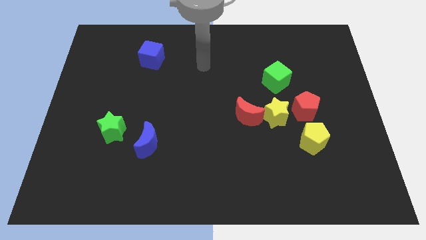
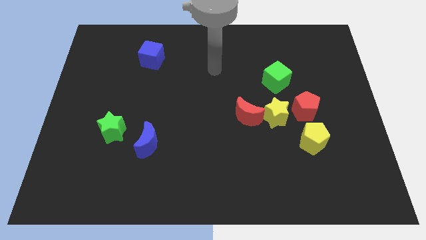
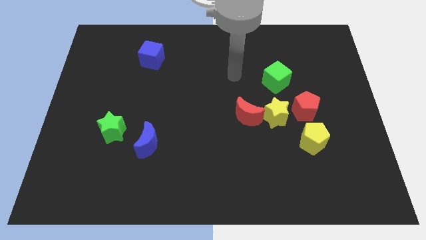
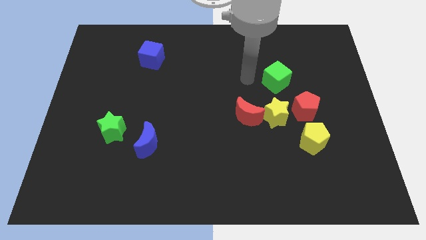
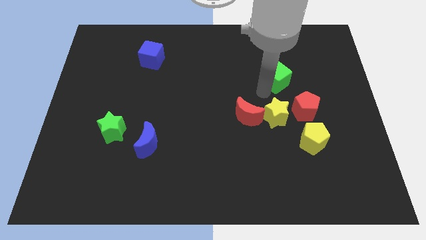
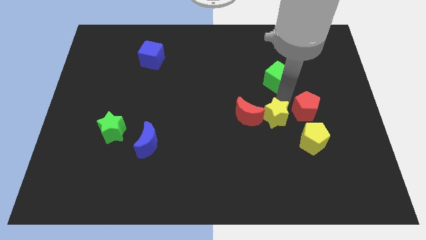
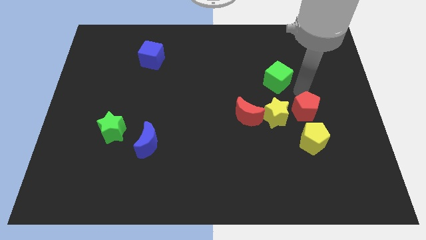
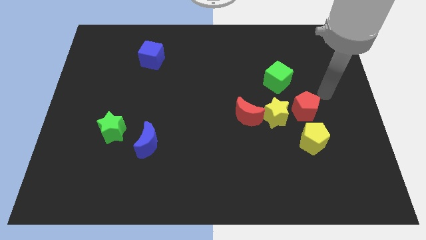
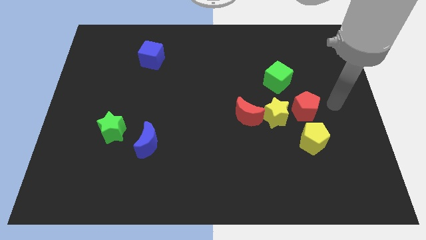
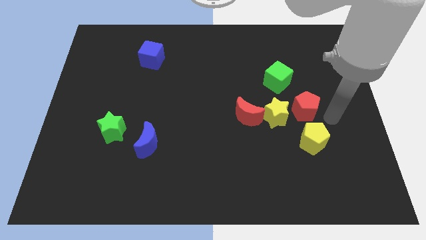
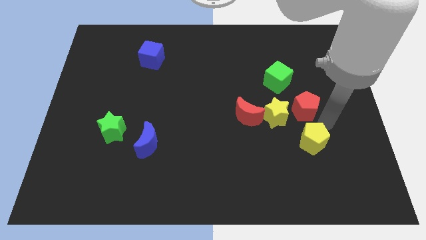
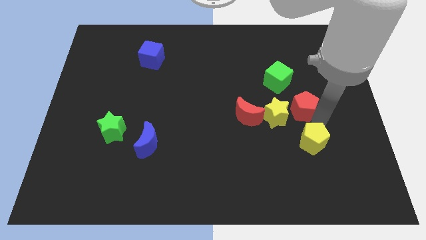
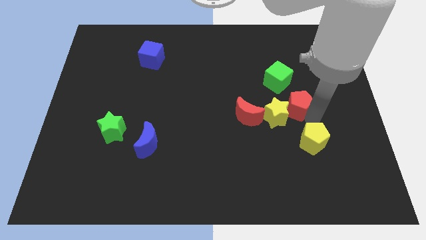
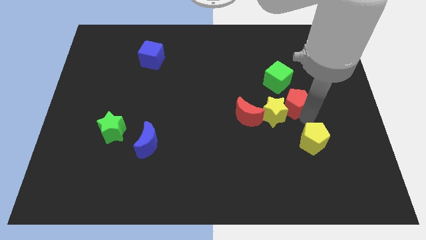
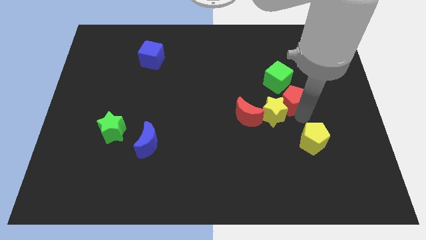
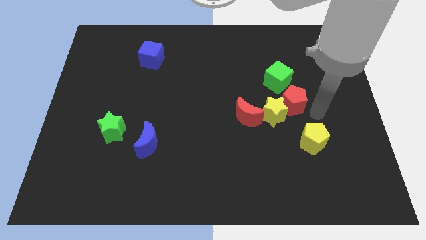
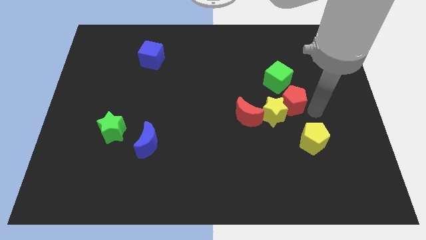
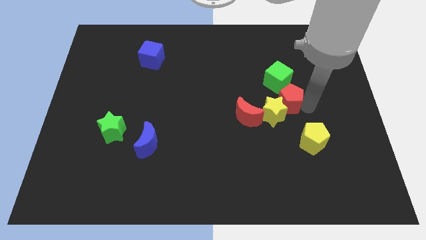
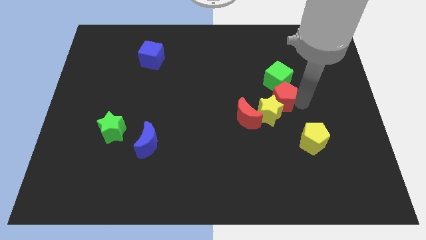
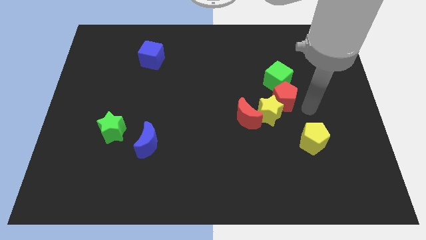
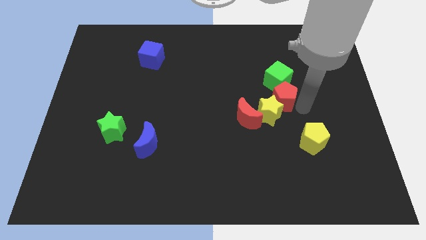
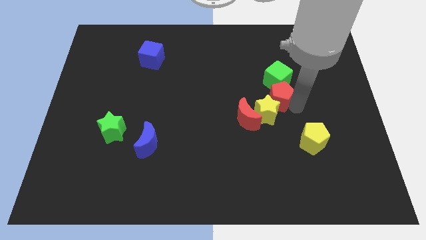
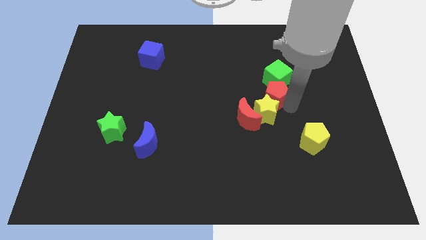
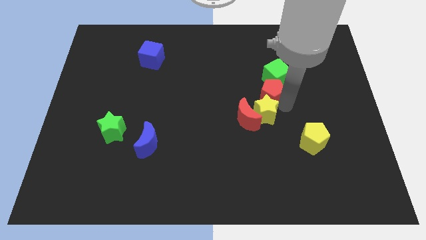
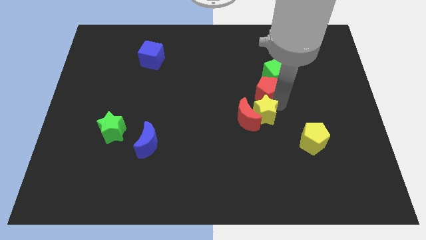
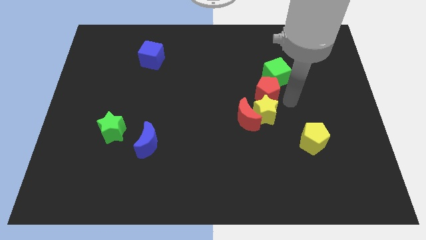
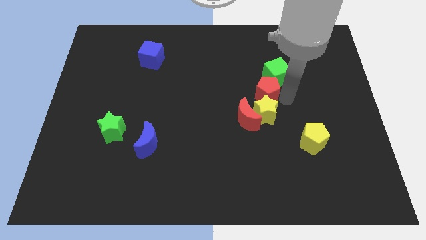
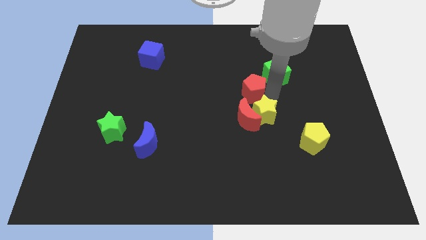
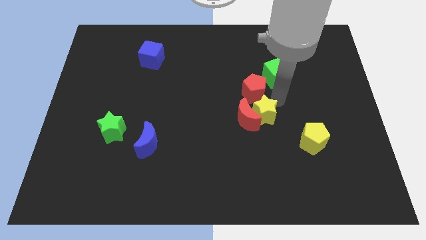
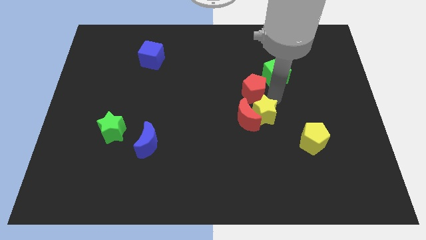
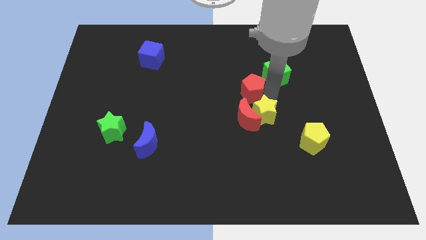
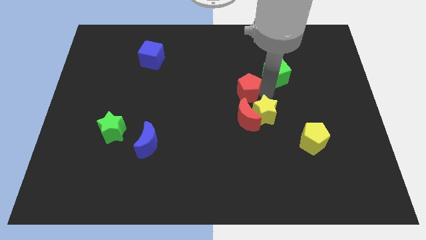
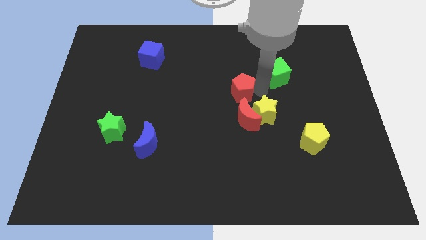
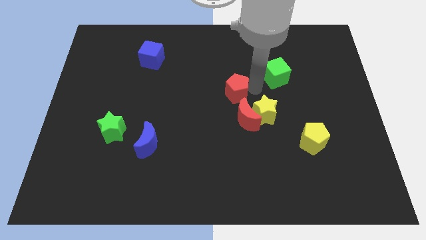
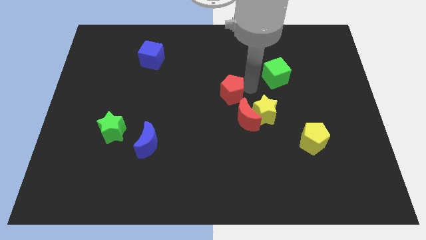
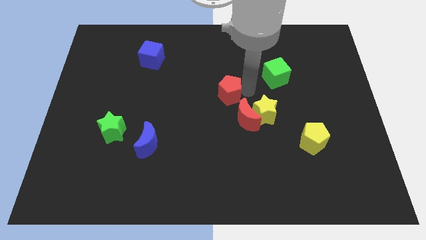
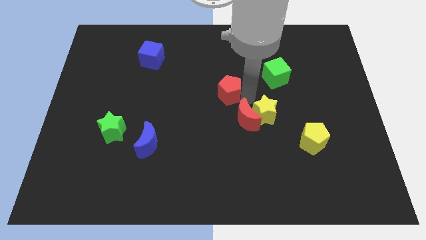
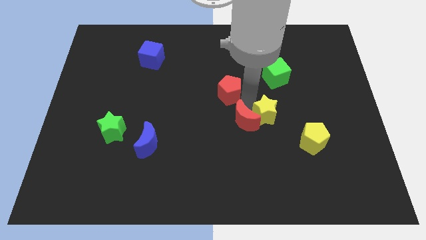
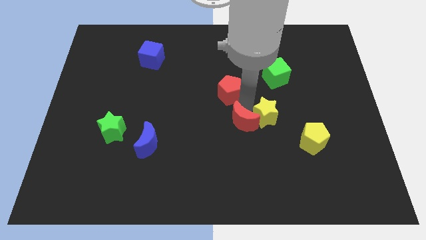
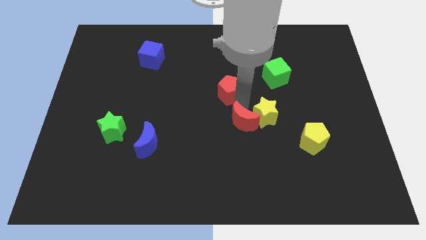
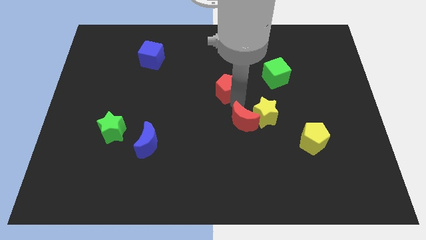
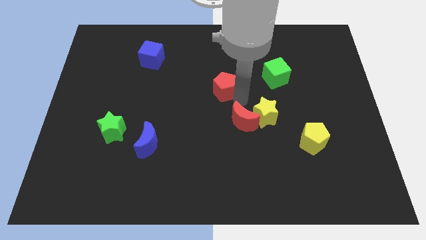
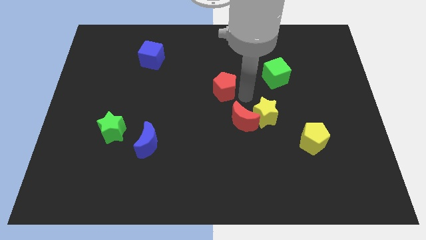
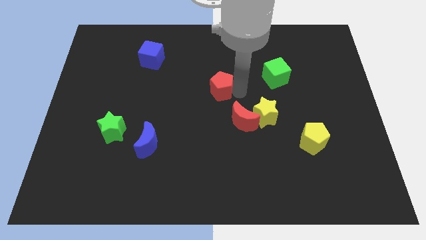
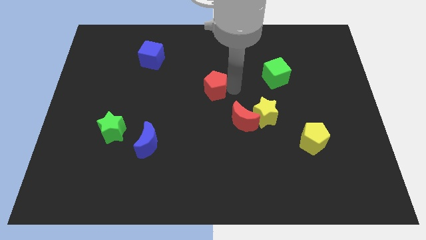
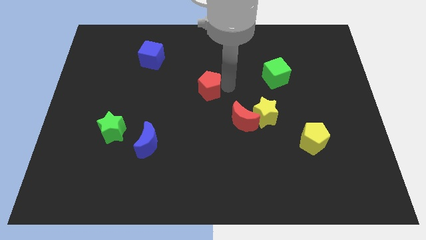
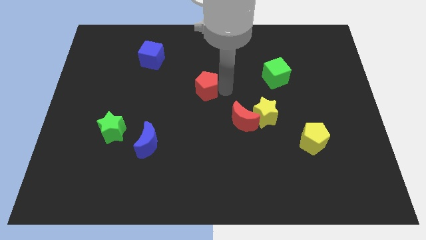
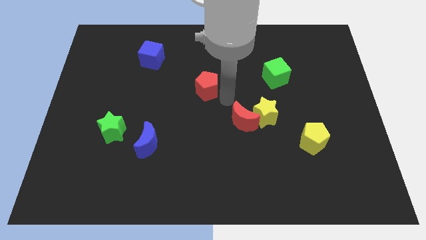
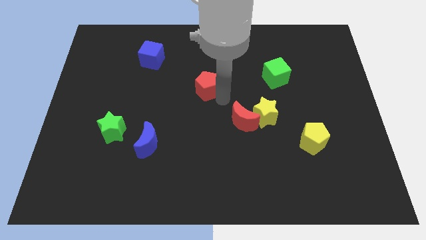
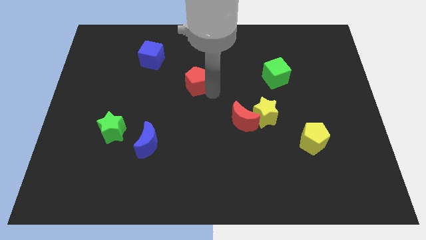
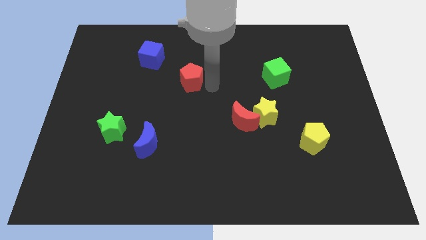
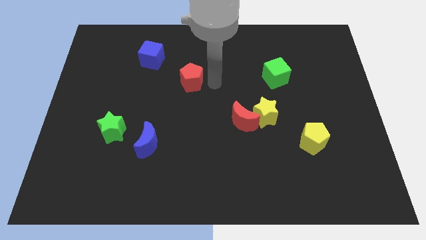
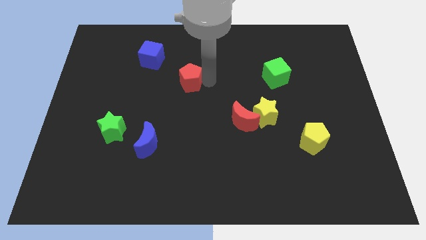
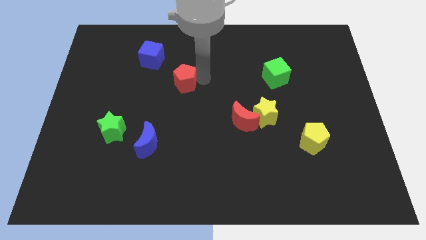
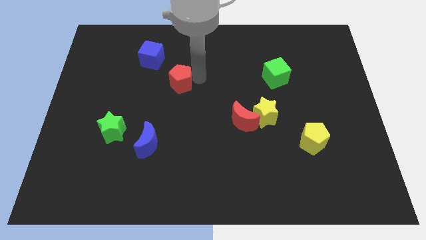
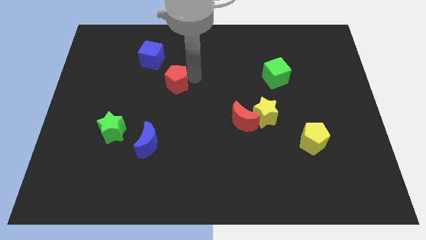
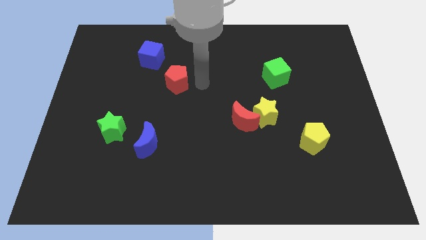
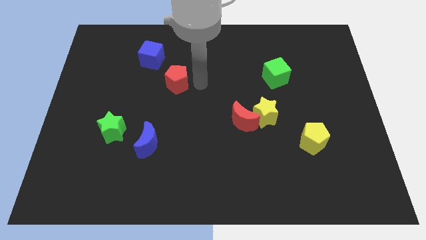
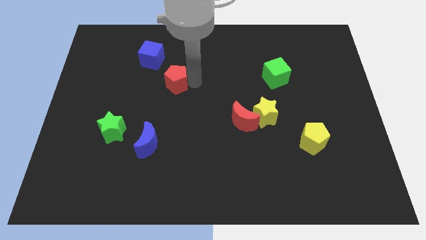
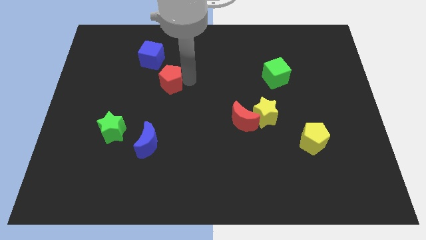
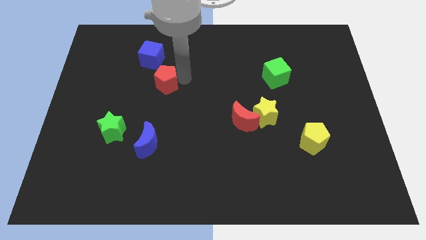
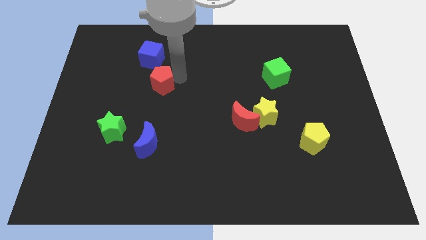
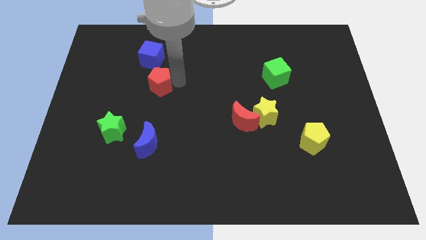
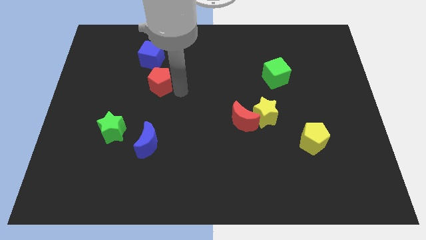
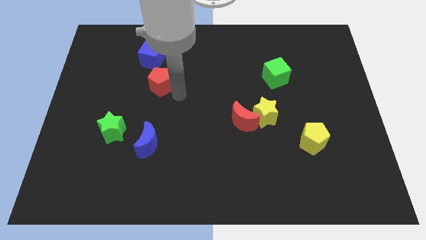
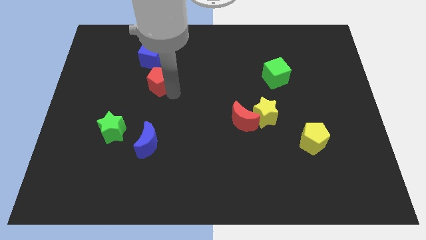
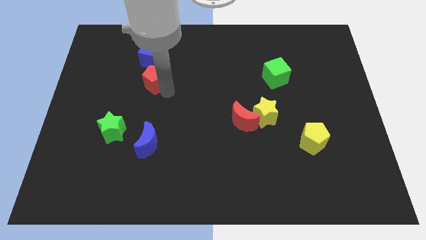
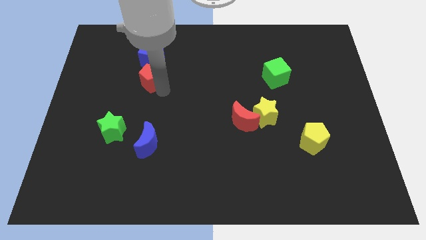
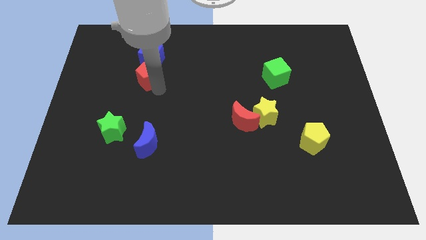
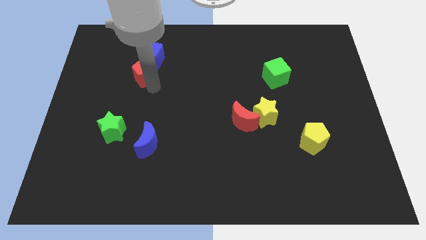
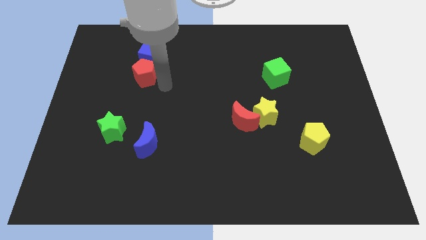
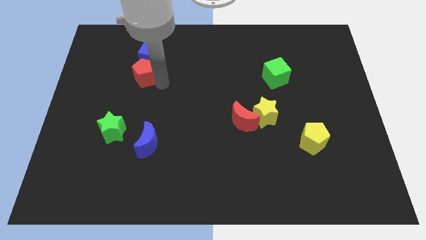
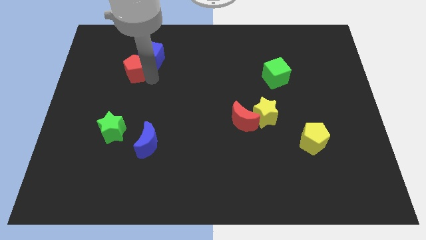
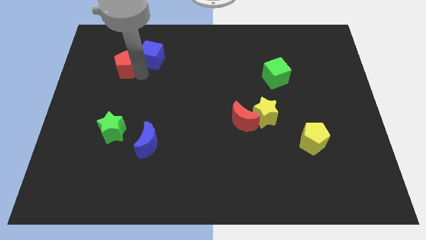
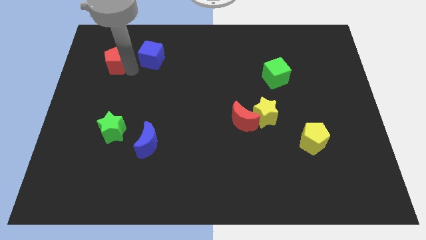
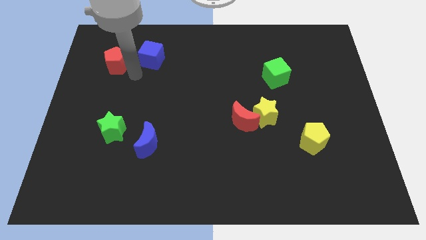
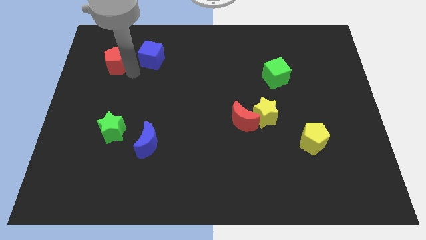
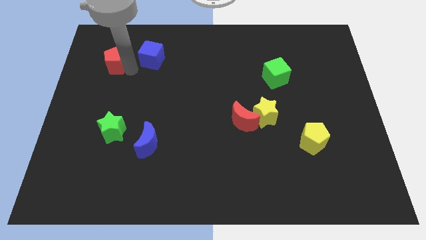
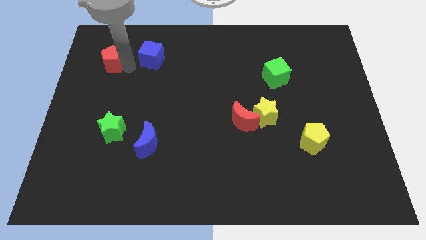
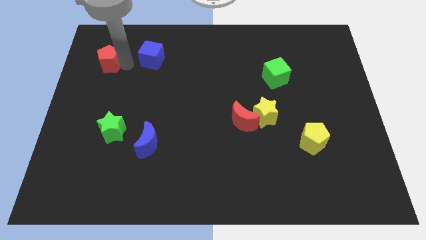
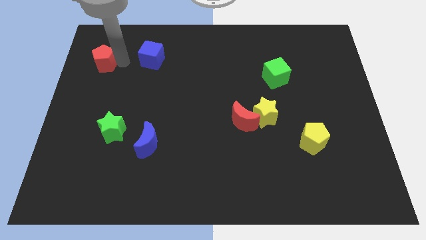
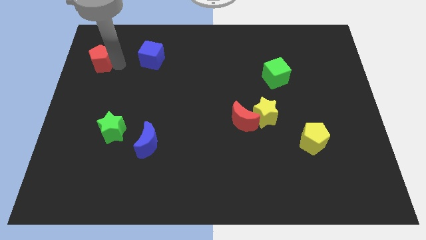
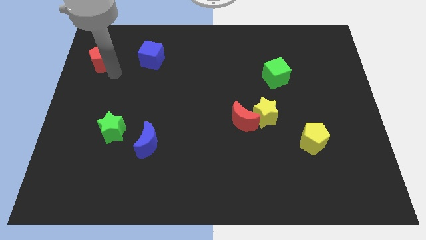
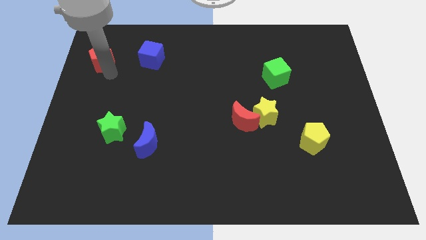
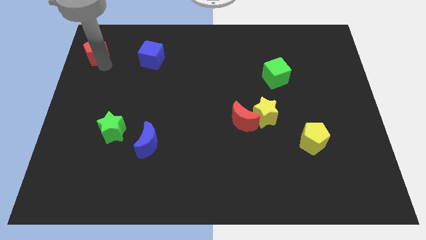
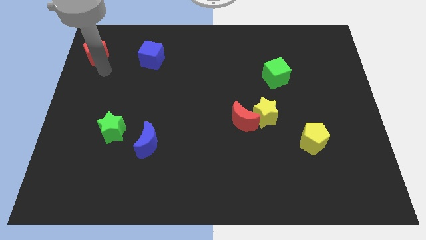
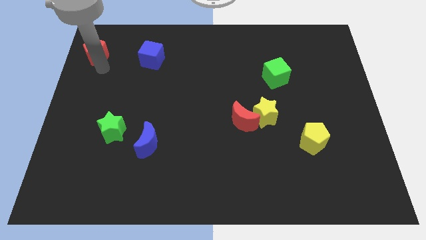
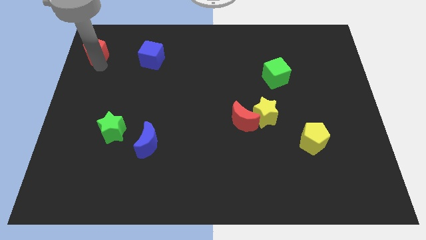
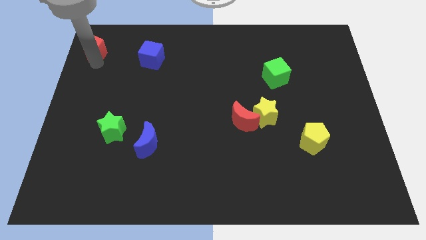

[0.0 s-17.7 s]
put the red pentagon to the top left corner
